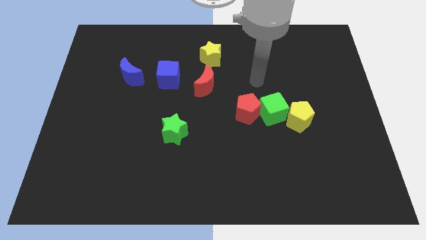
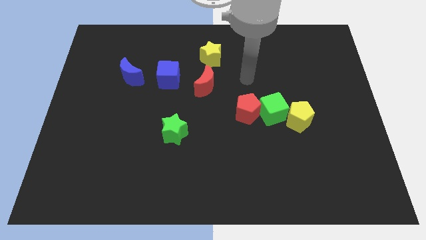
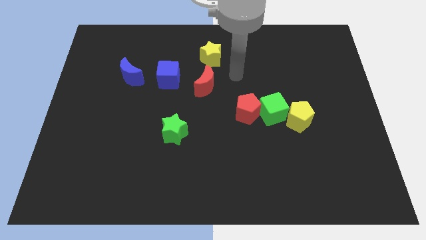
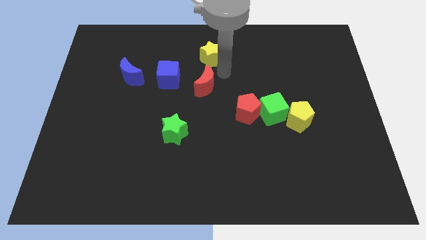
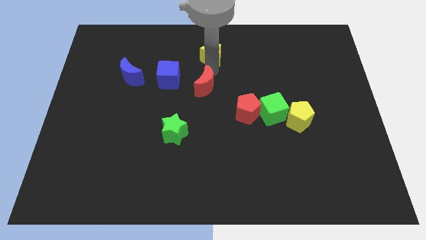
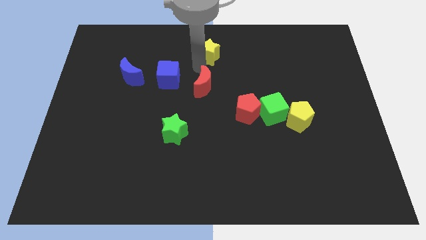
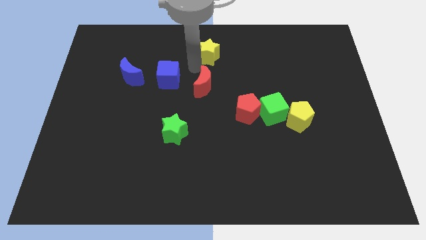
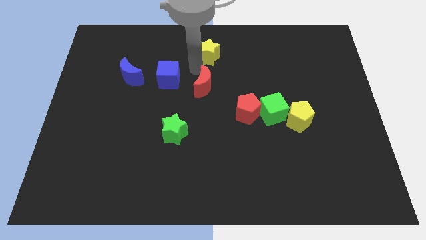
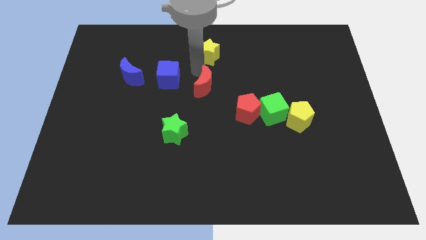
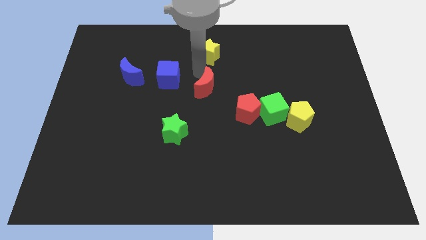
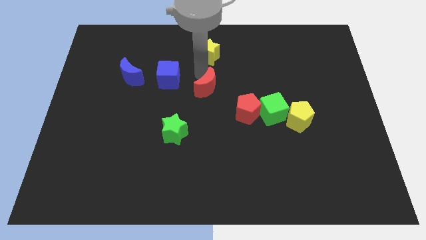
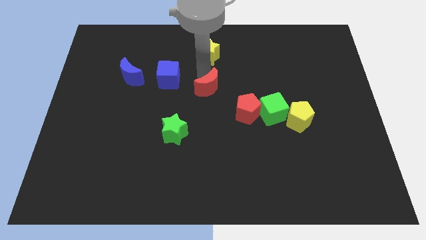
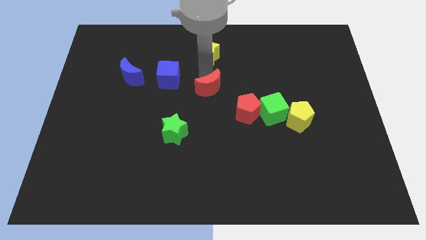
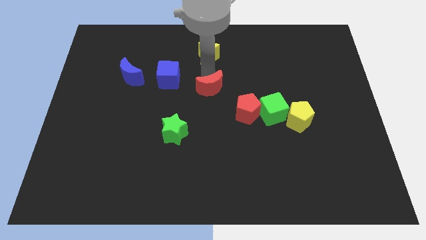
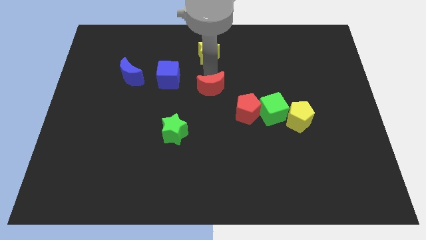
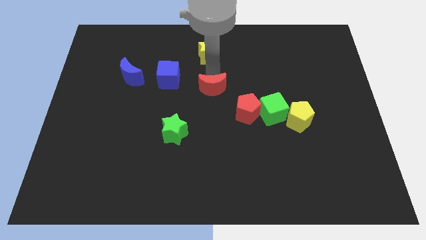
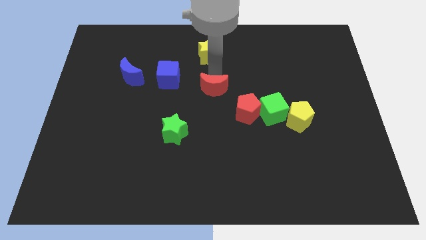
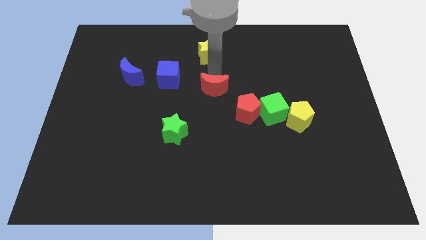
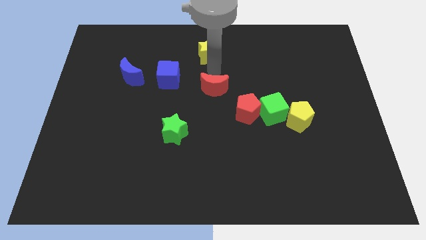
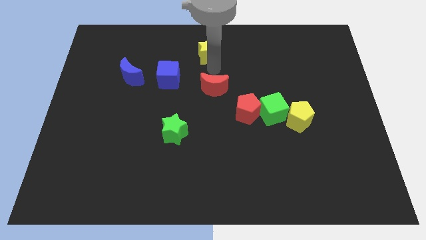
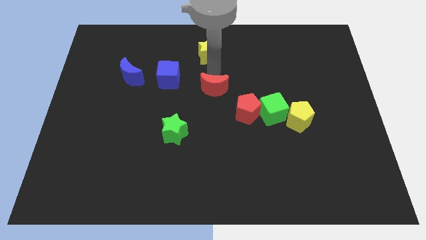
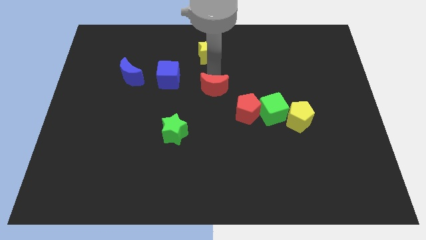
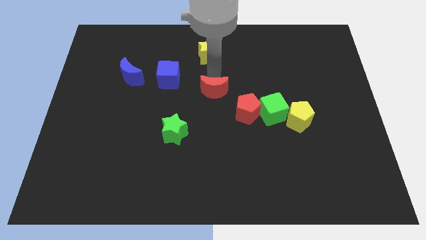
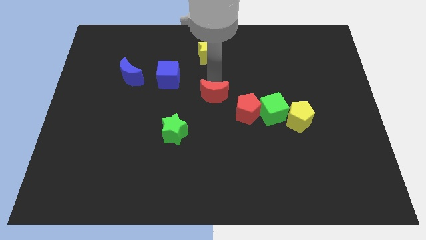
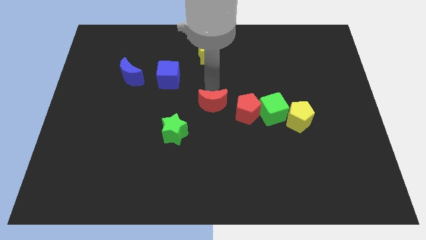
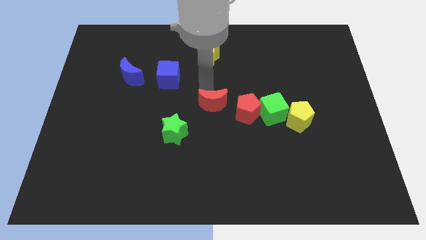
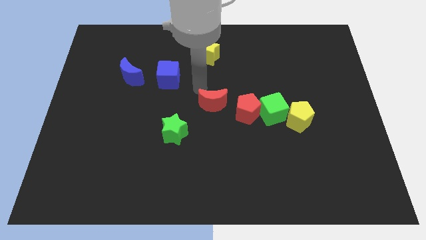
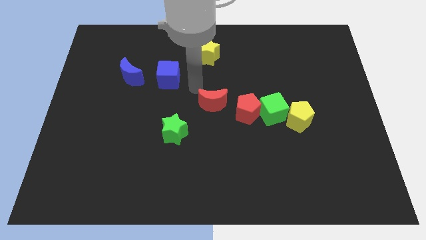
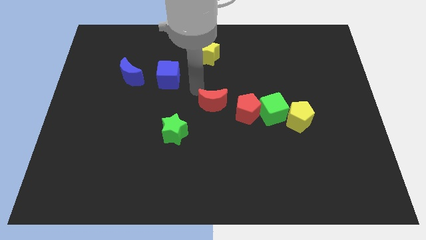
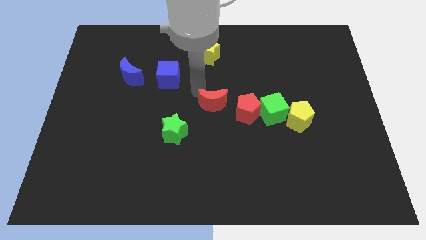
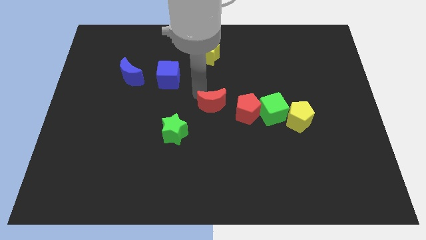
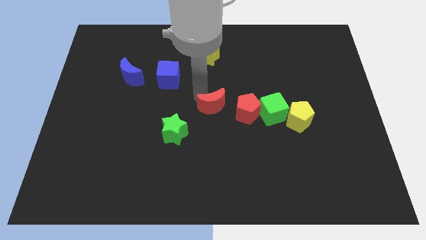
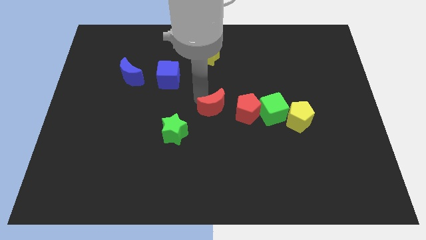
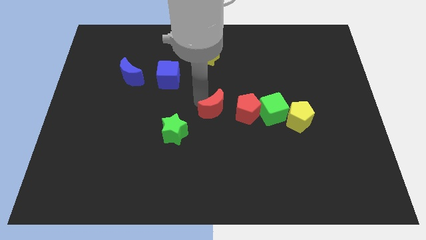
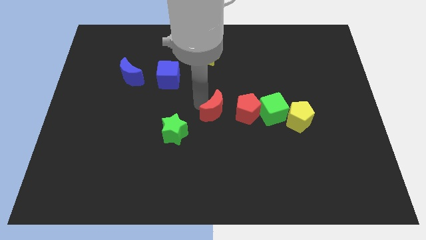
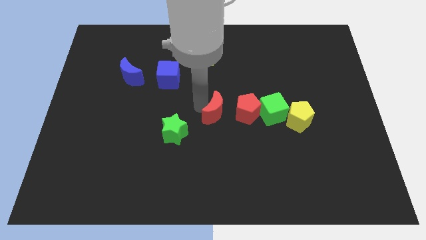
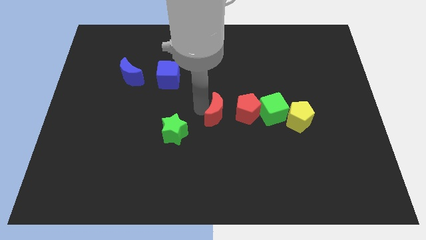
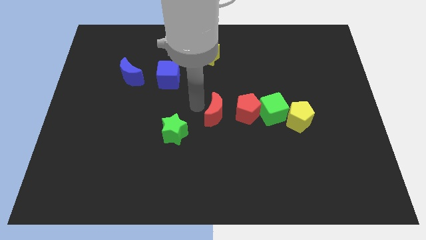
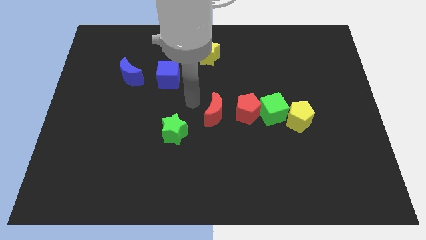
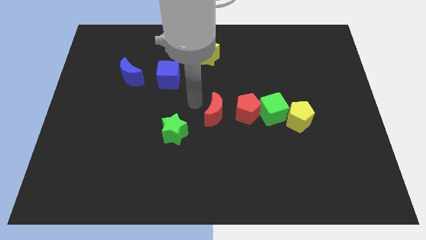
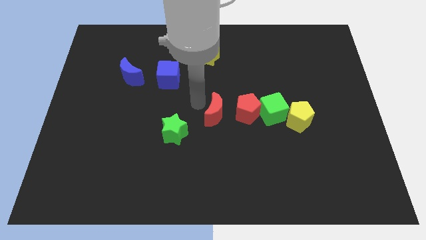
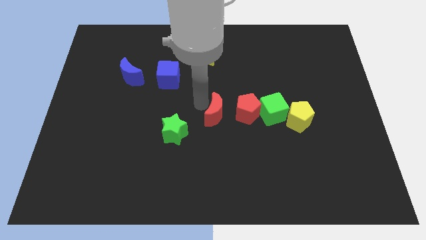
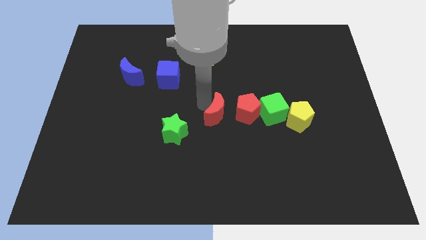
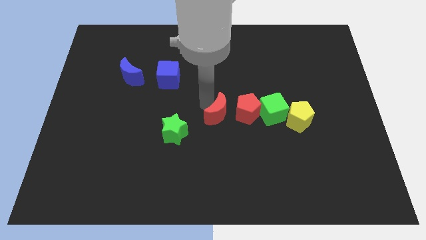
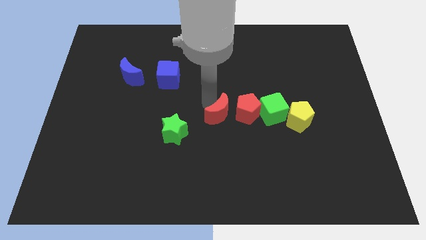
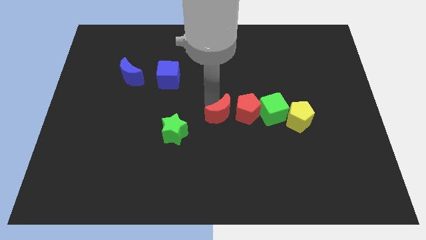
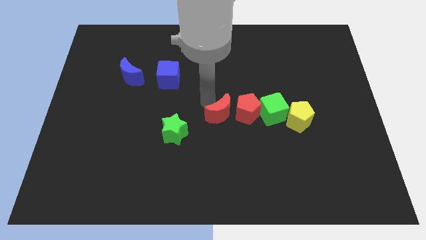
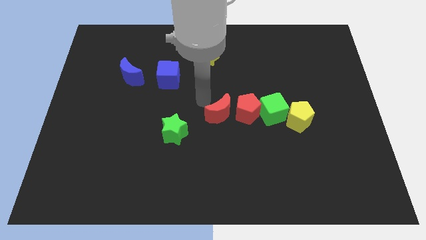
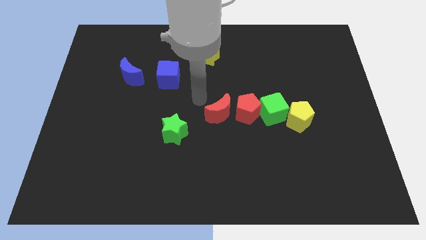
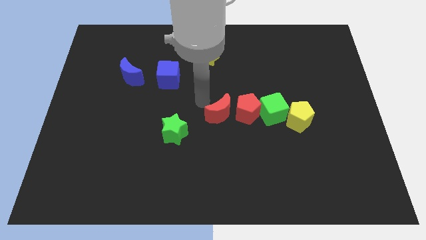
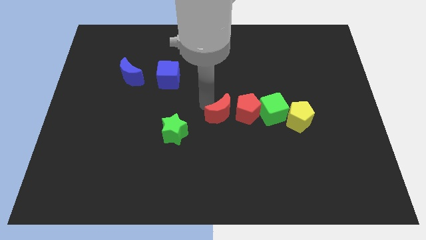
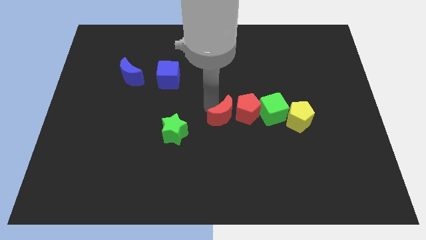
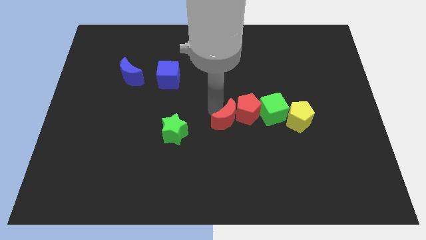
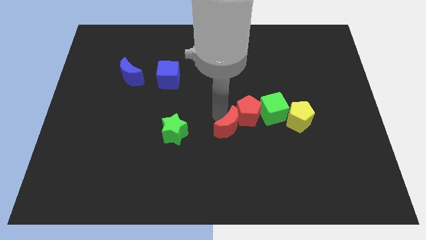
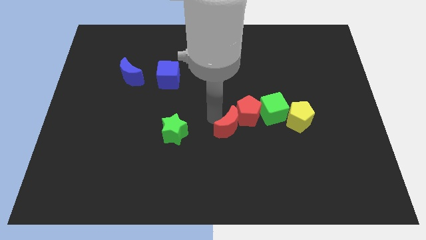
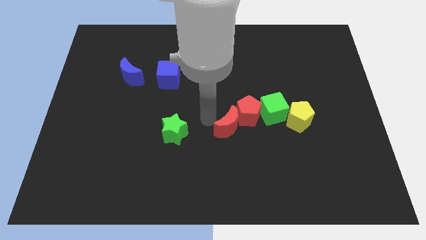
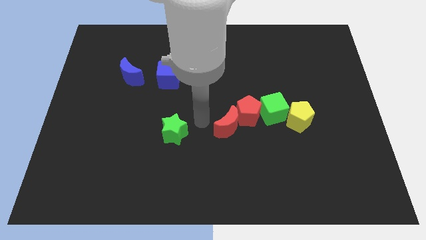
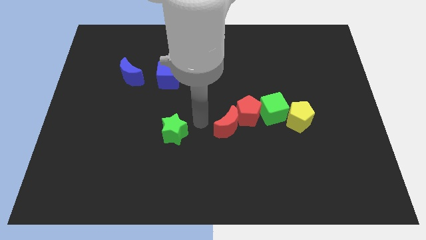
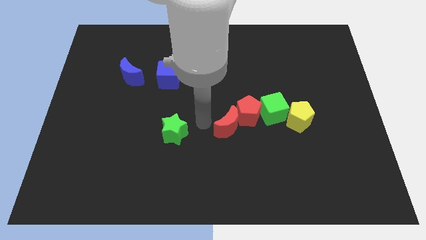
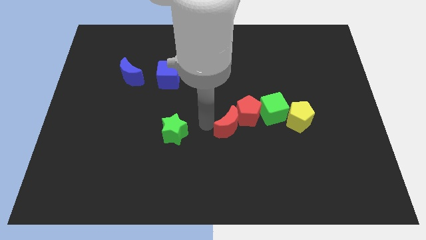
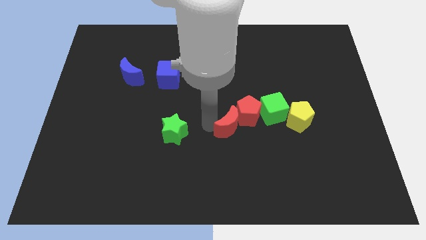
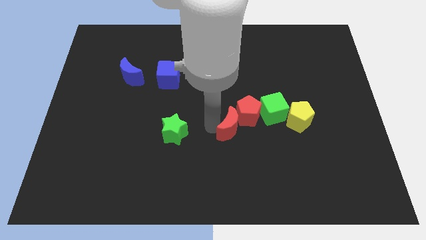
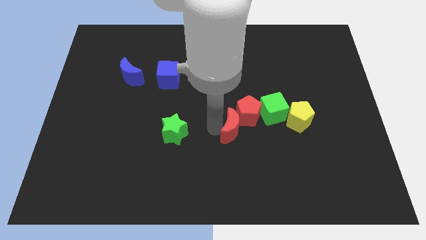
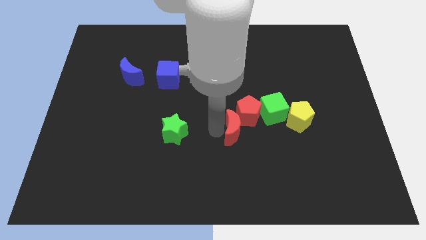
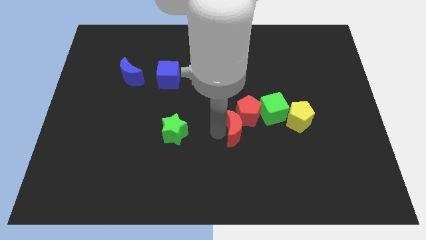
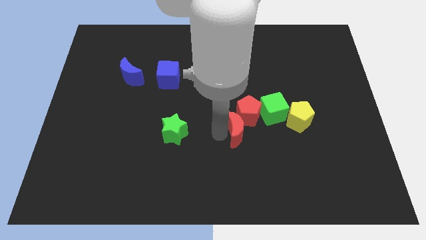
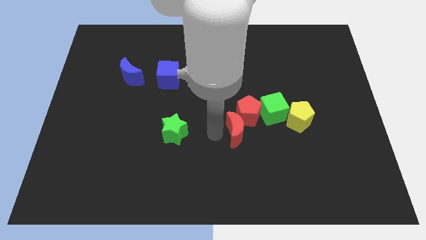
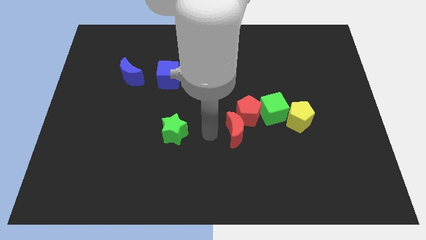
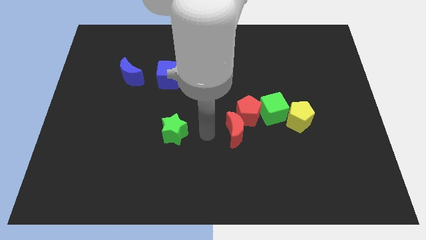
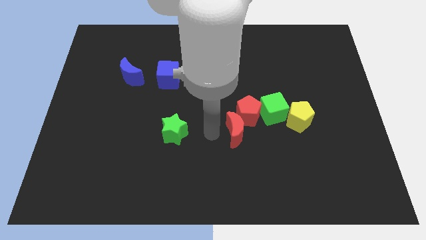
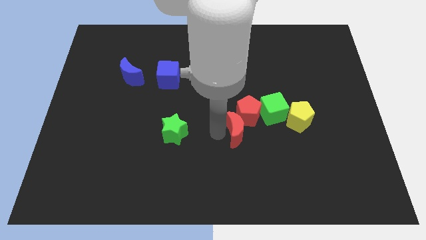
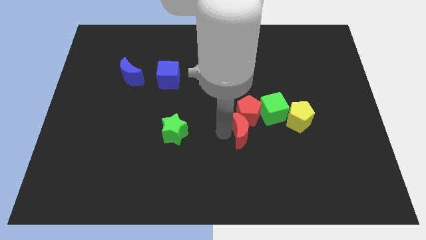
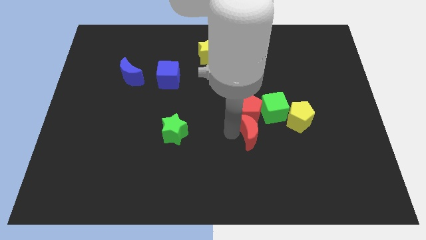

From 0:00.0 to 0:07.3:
push the red moon to the bottom right of the red pentagon

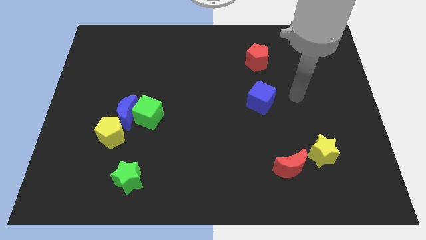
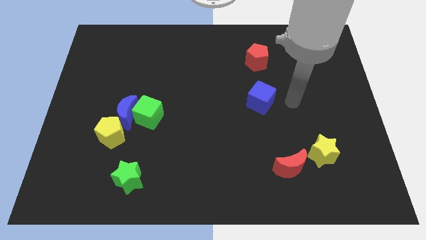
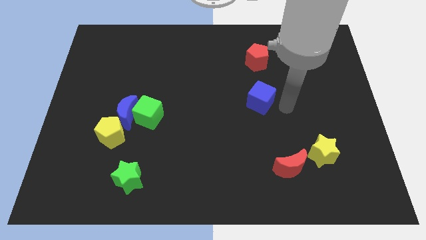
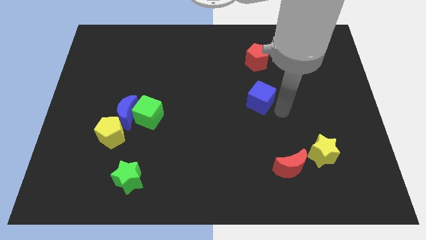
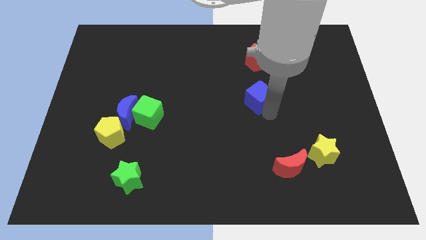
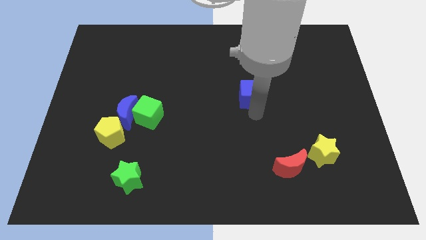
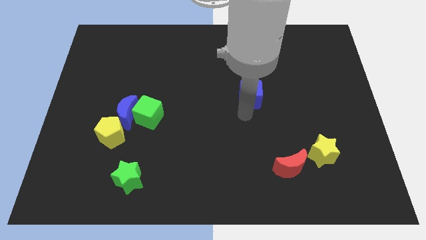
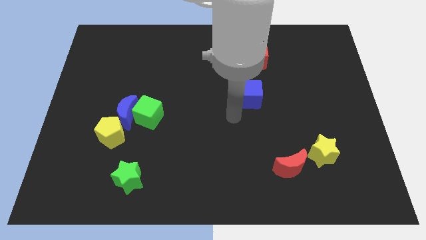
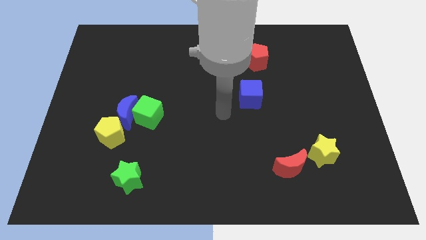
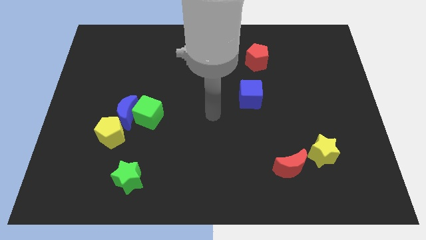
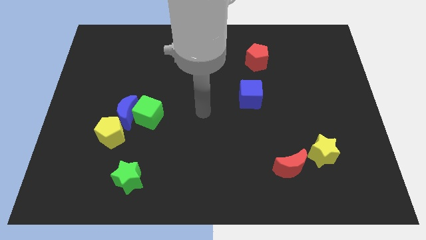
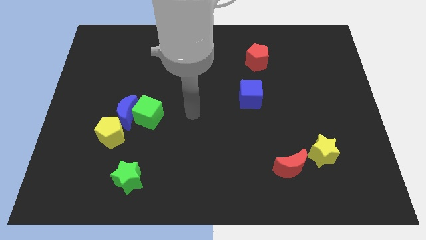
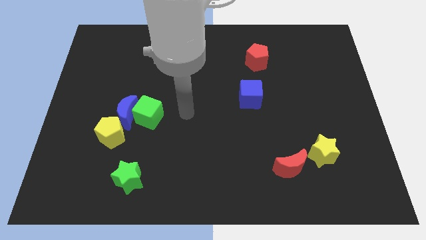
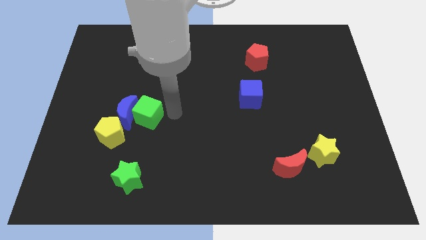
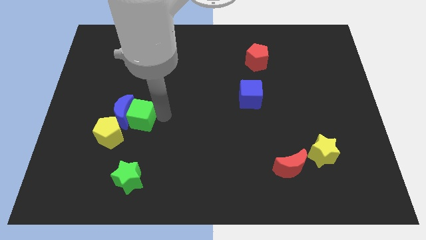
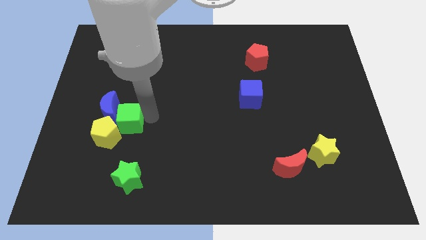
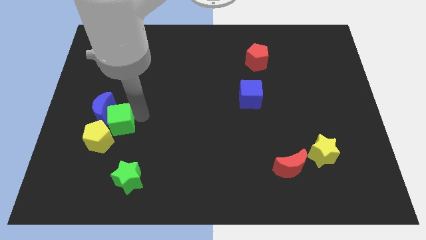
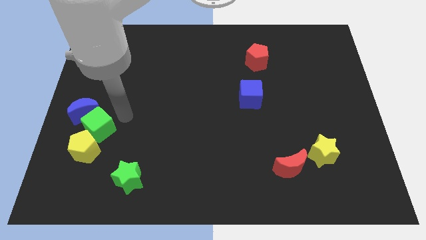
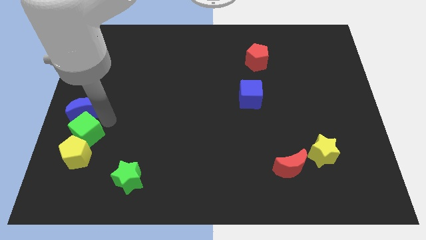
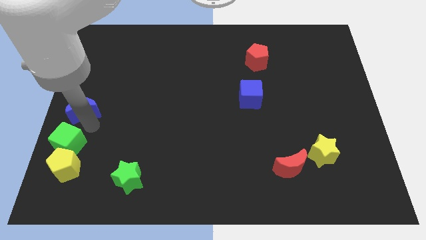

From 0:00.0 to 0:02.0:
put the yellow pentagon left of the green star
